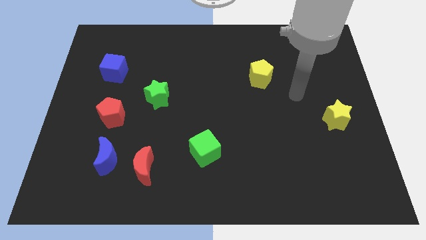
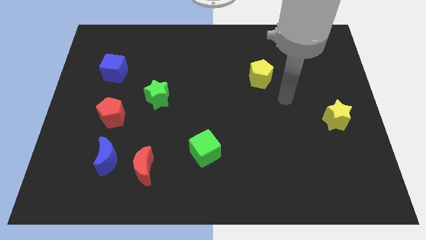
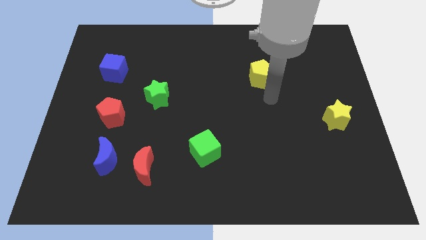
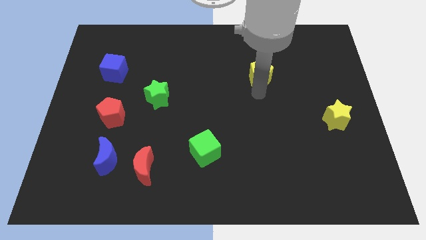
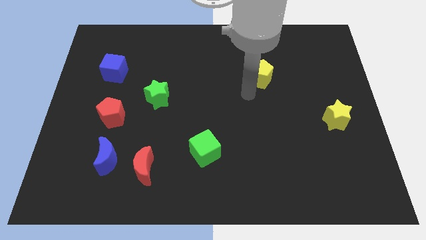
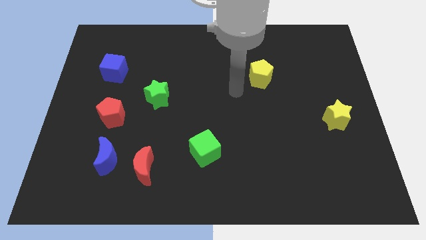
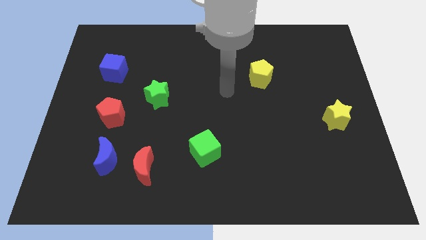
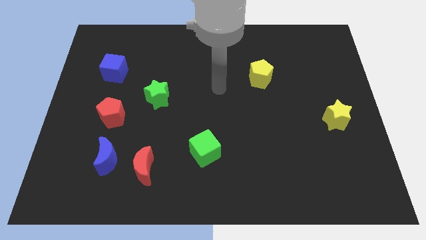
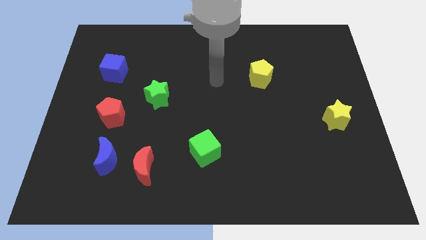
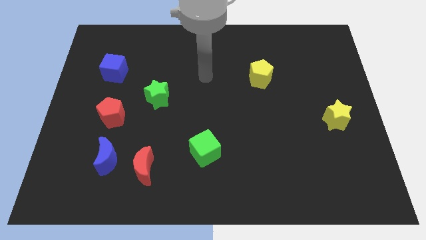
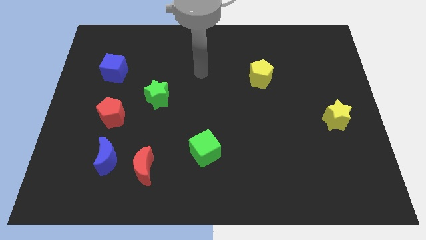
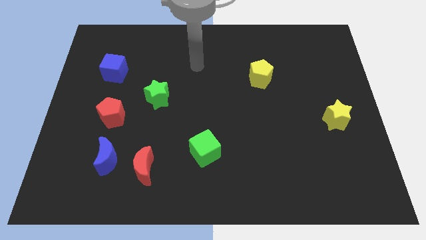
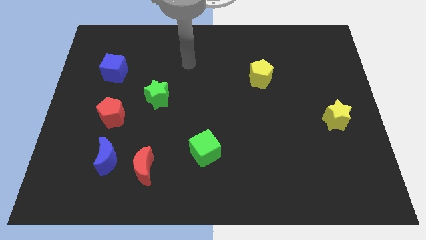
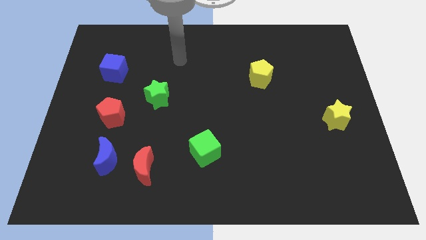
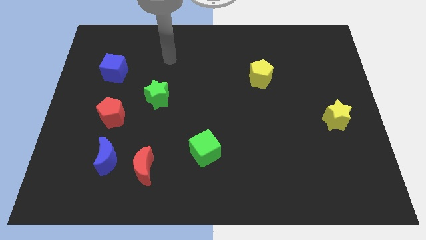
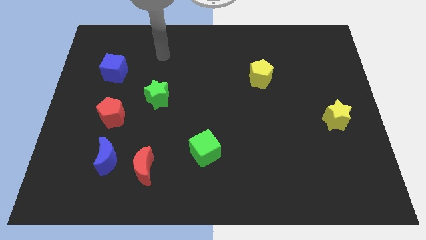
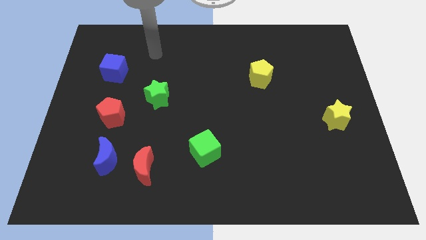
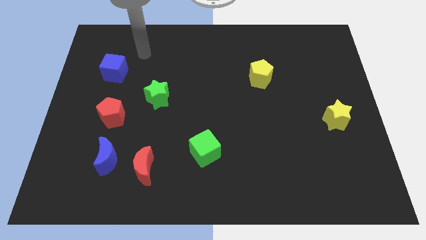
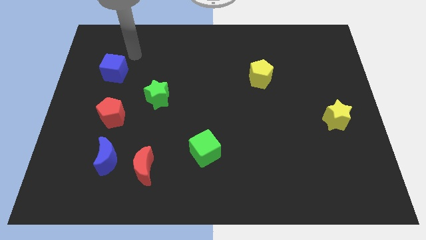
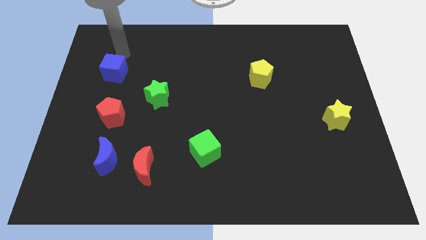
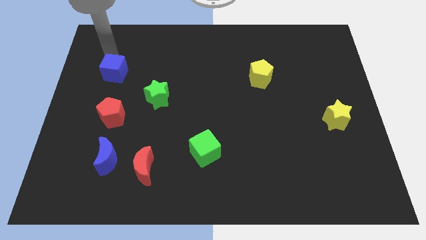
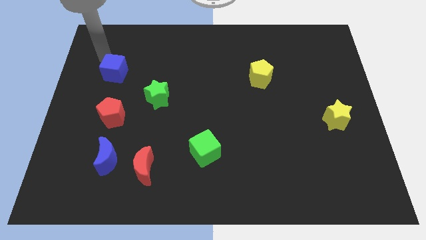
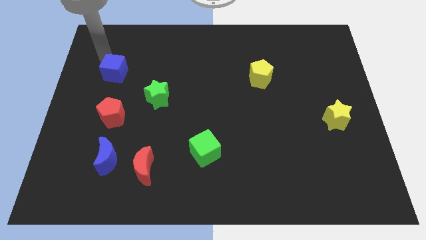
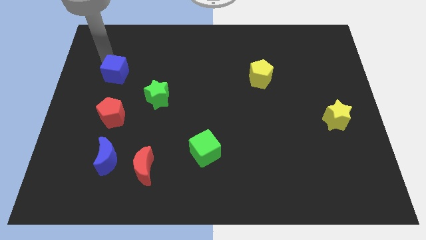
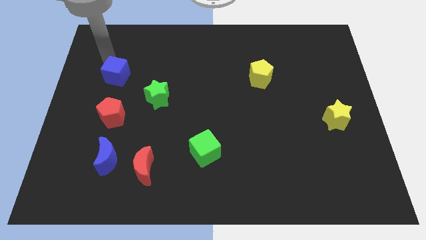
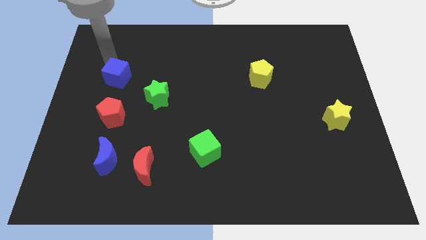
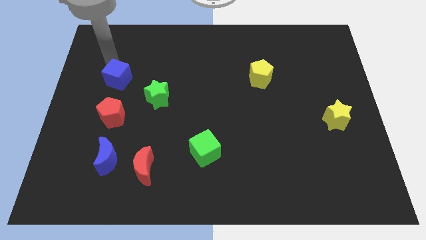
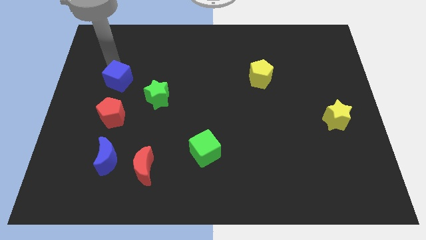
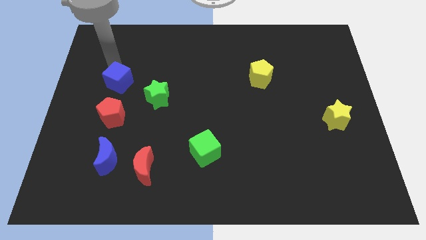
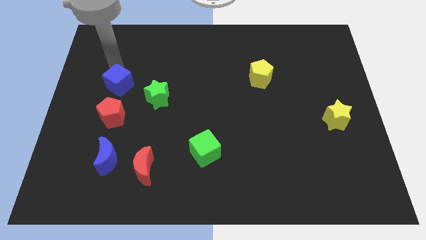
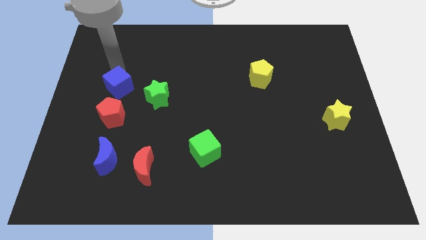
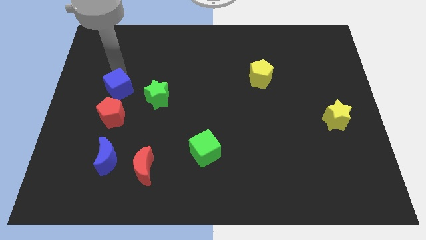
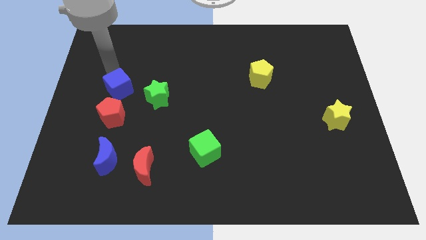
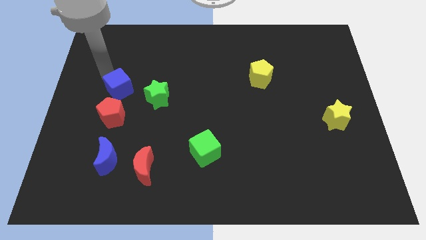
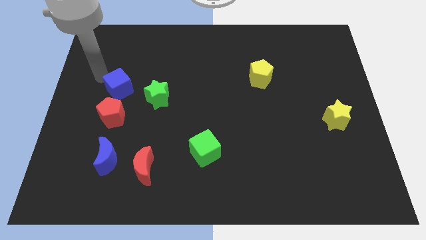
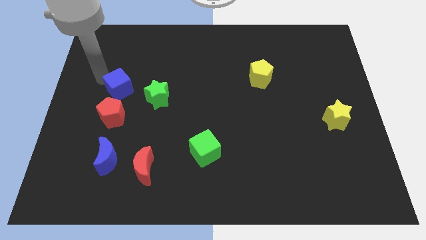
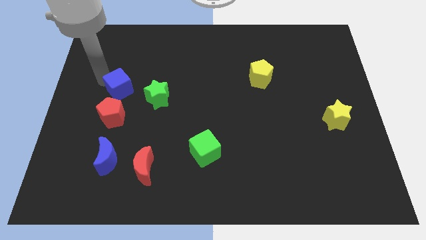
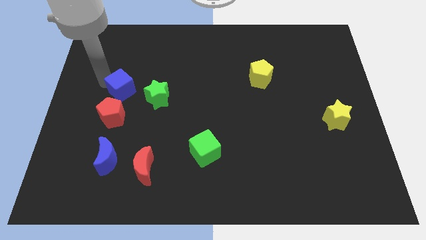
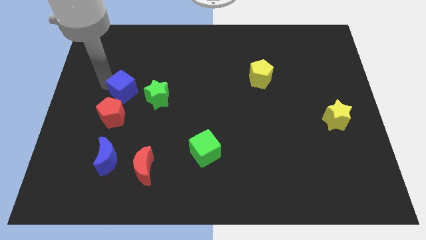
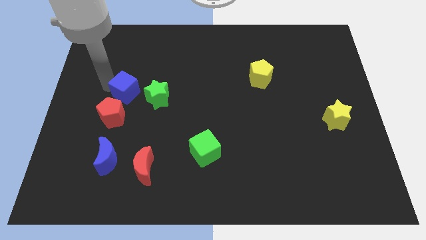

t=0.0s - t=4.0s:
slide the blue cube downwards and to the right diagonally slightly

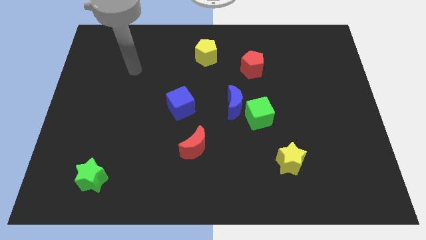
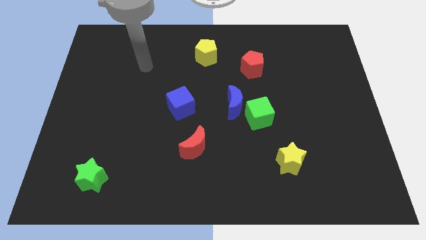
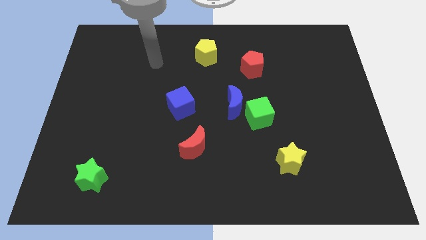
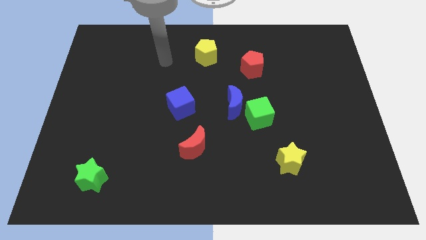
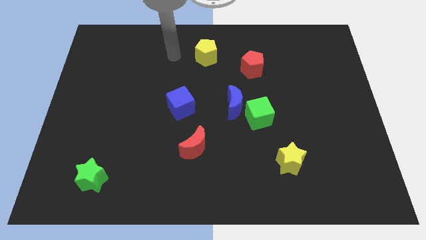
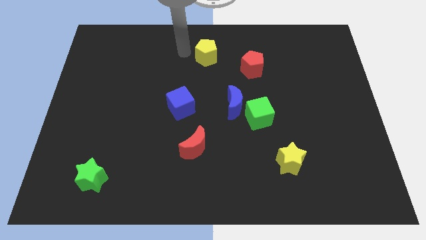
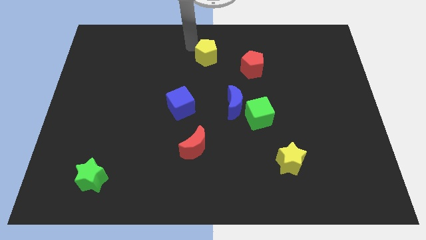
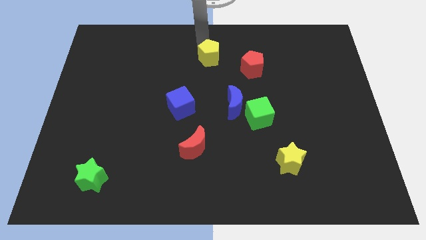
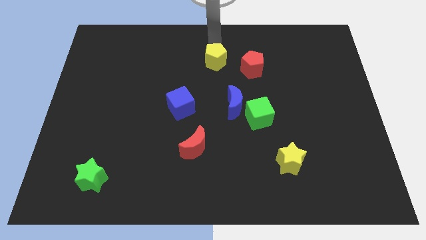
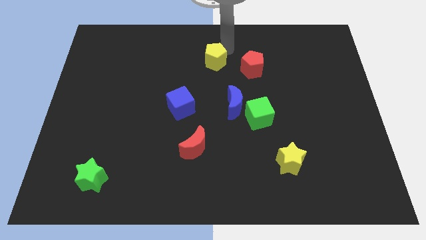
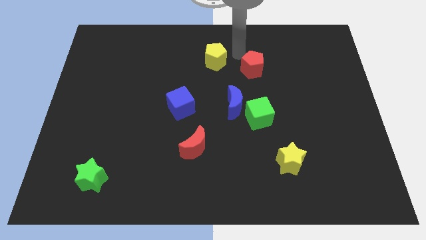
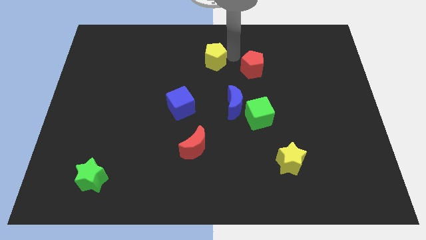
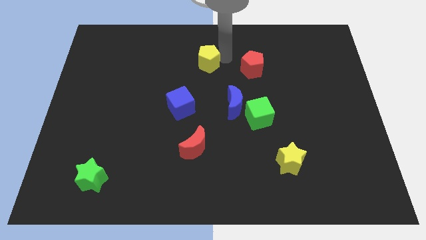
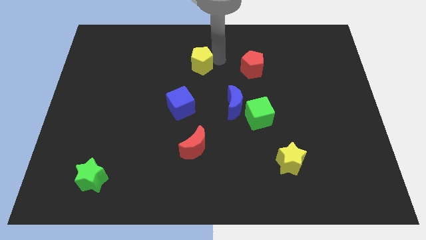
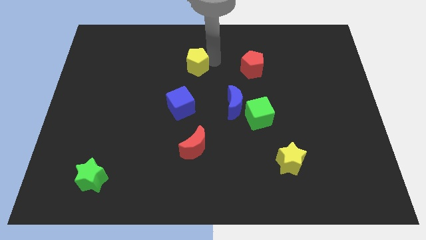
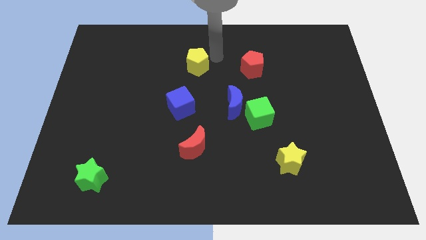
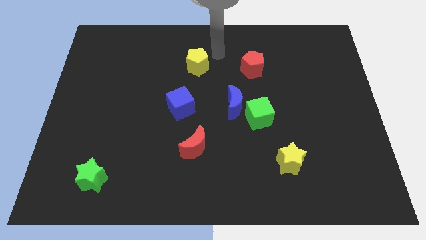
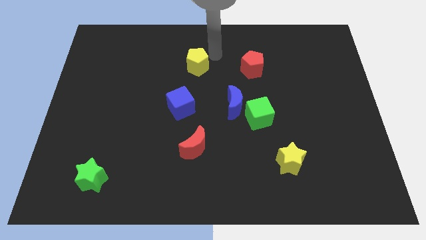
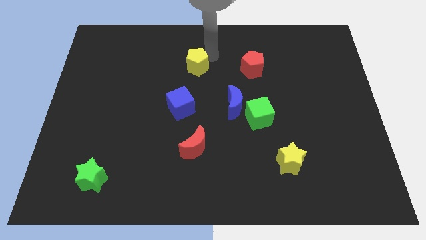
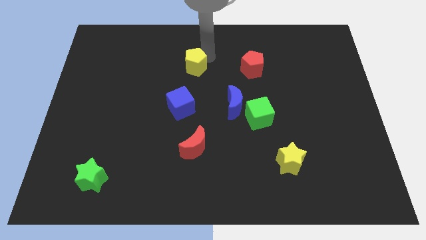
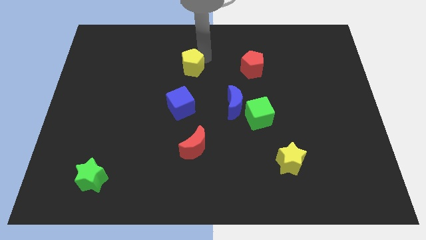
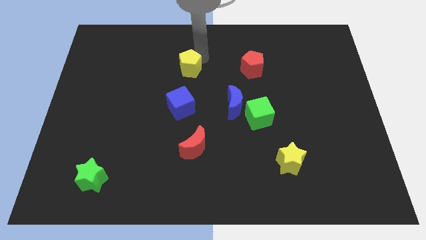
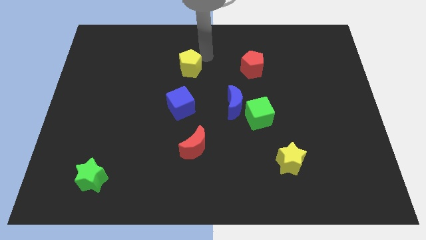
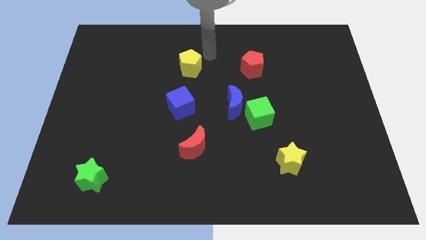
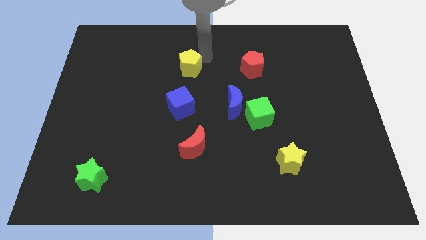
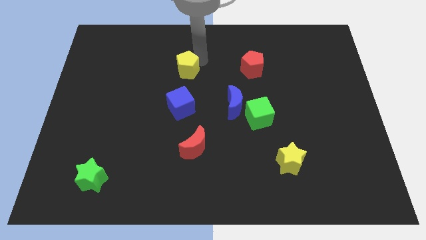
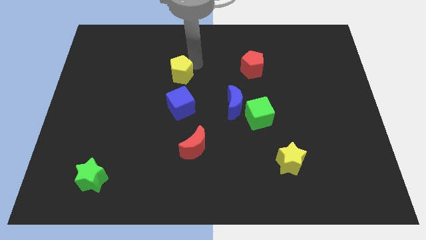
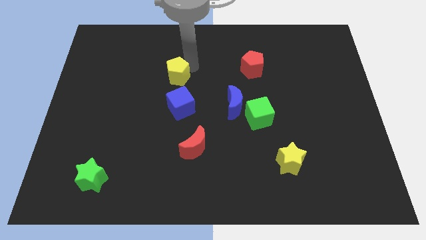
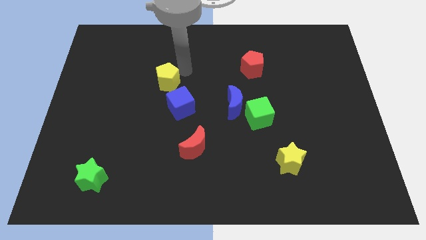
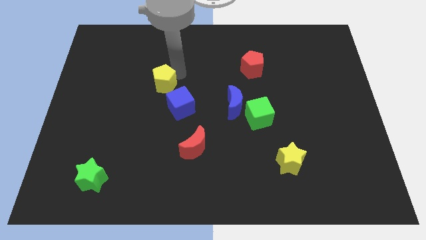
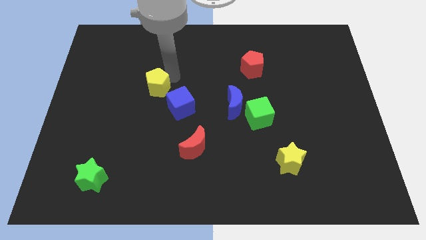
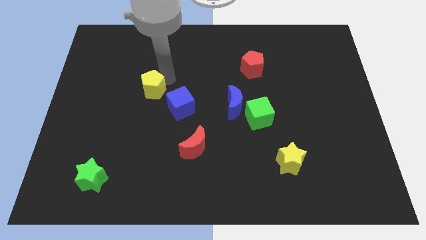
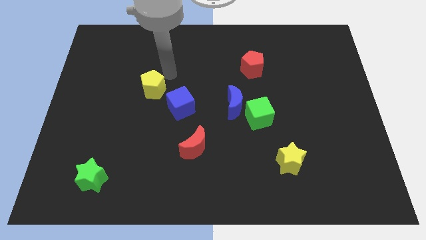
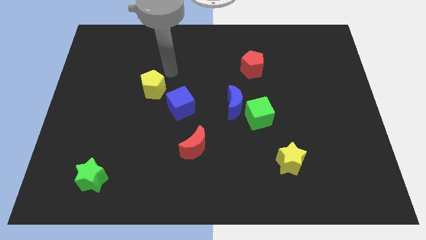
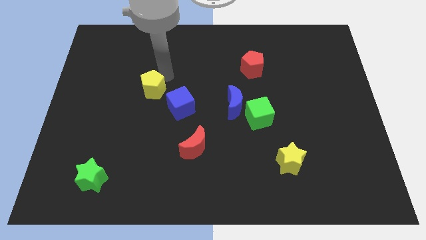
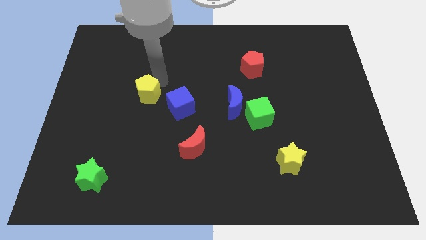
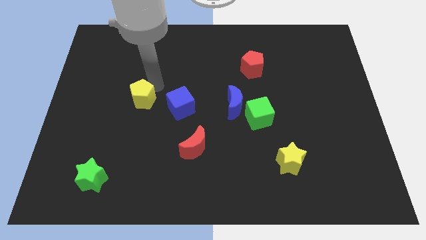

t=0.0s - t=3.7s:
move the yellow pentagon diagonally down and to the left

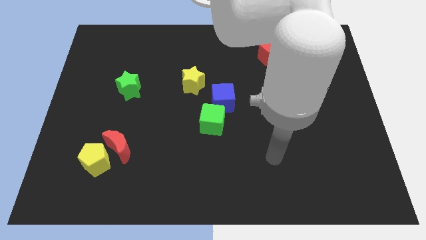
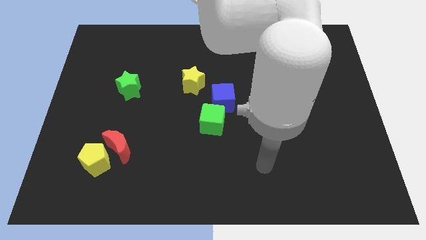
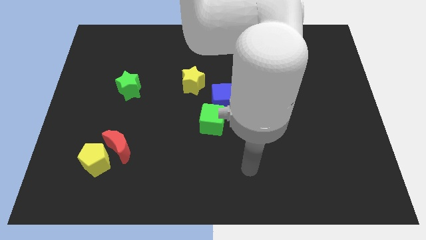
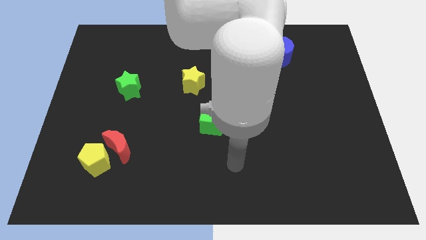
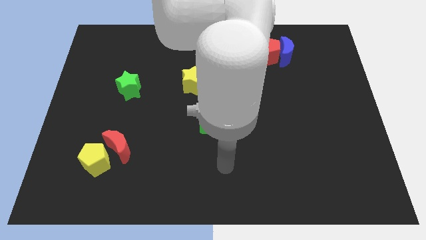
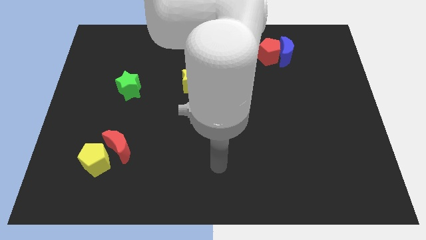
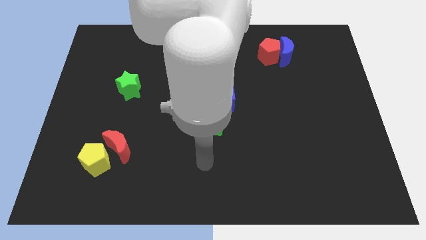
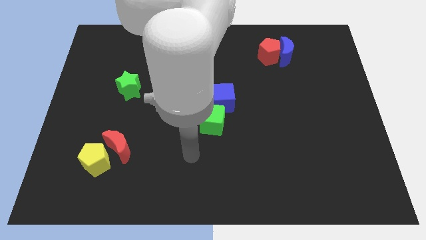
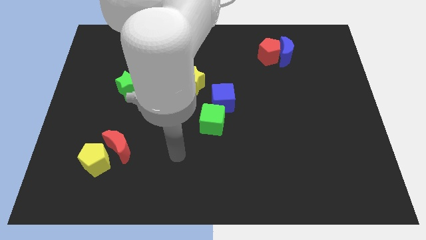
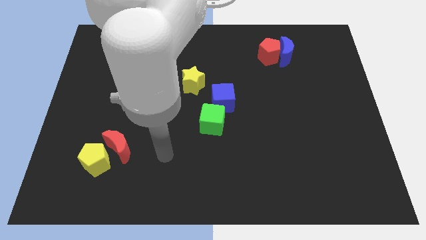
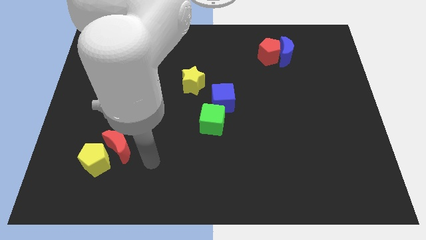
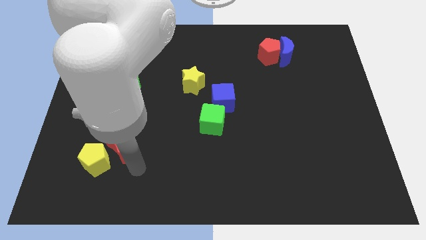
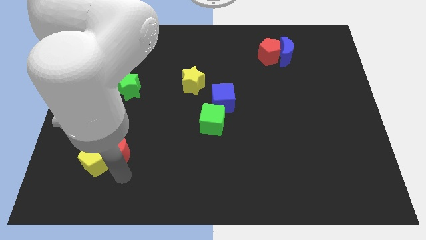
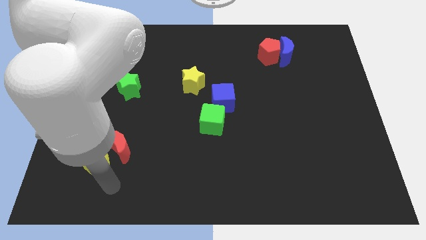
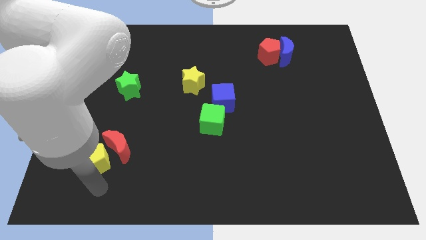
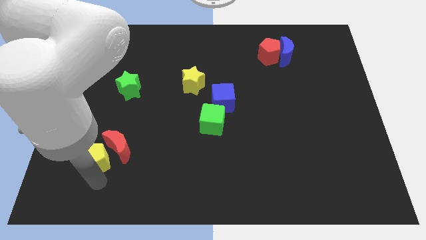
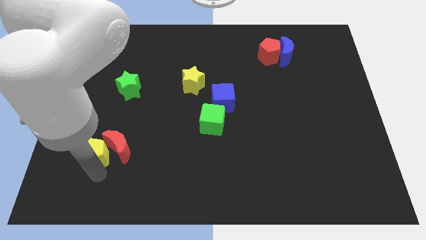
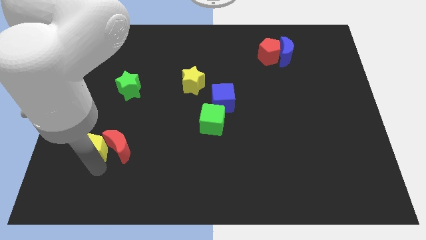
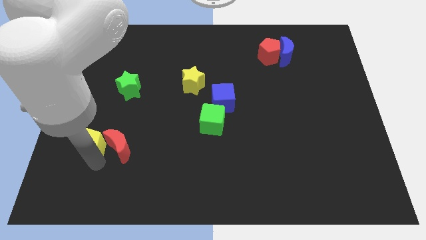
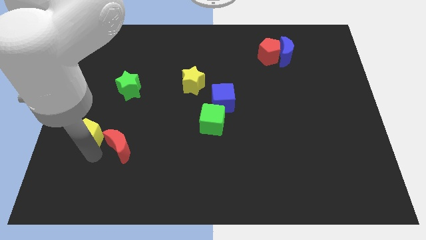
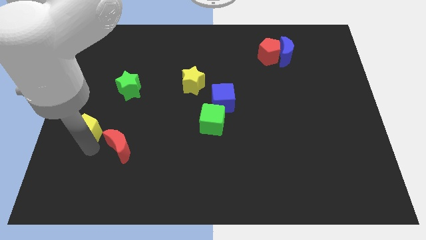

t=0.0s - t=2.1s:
slightly move the yellow pentagon up
